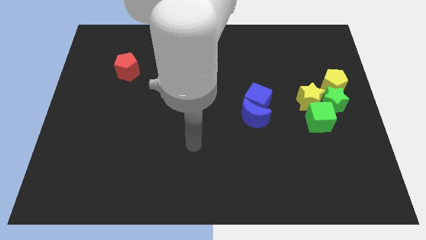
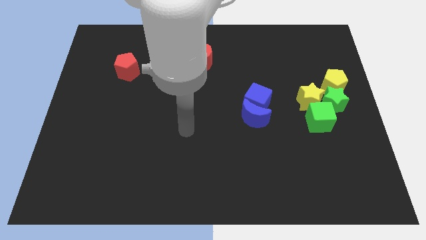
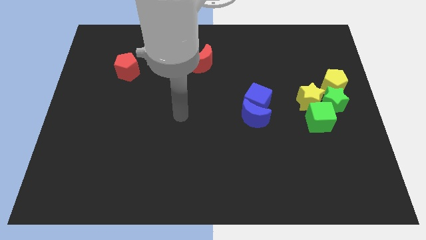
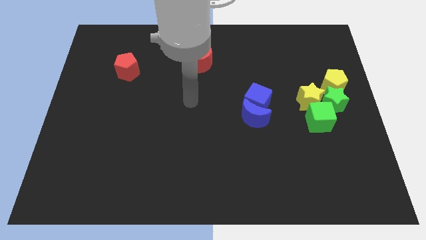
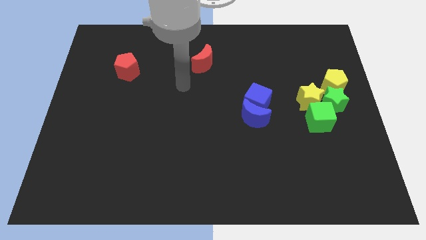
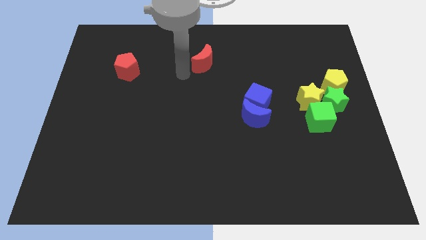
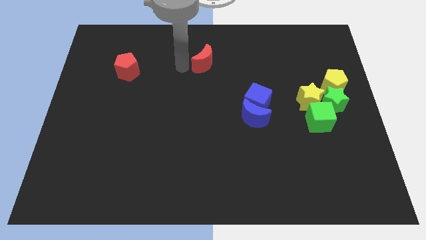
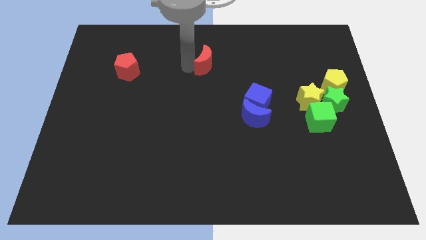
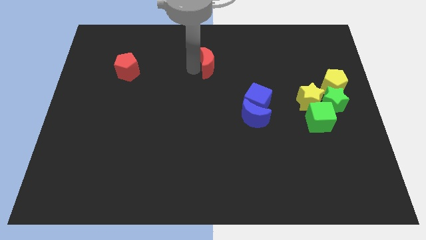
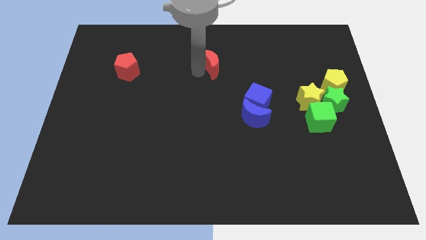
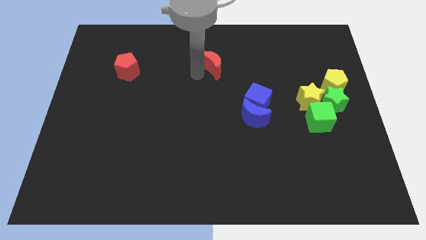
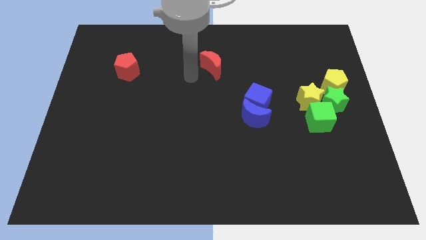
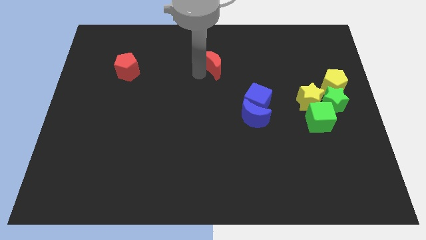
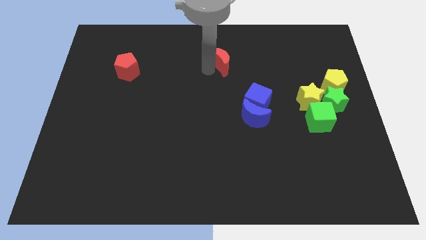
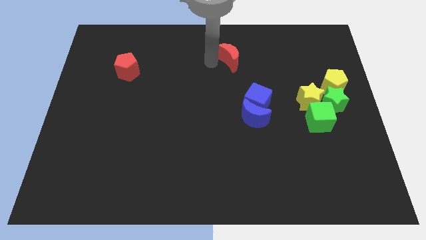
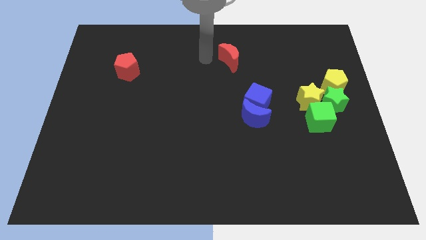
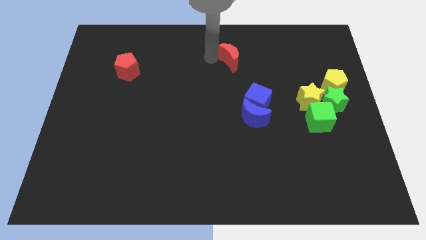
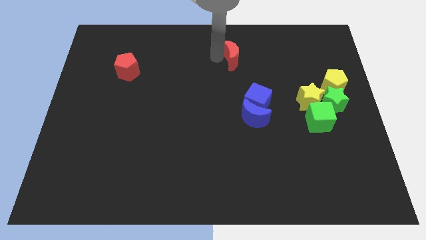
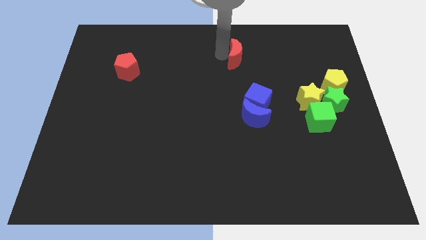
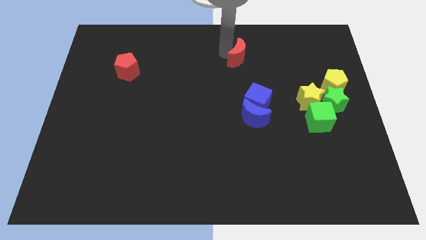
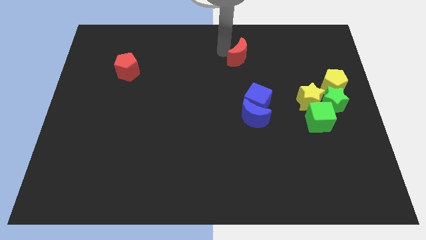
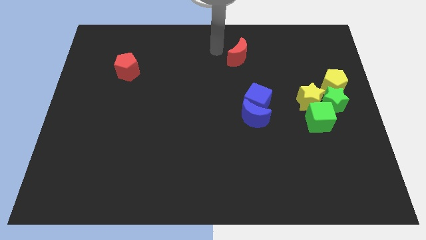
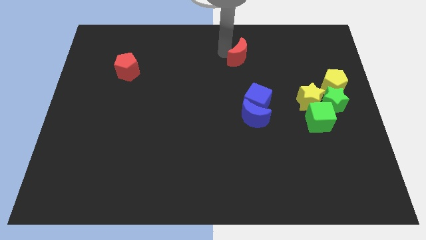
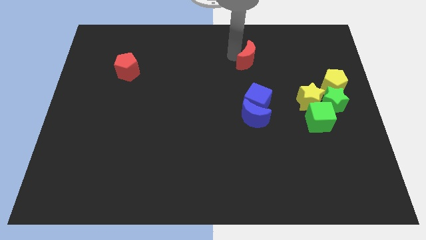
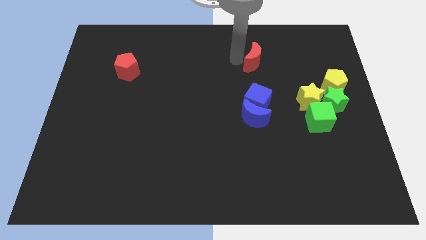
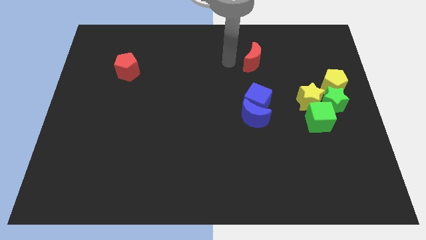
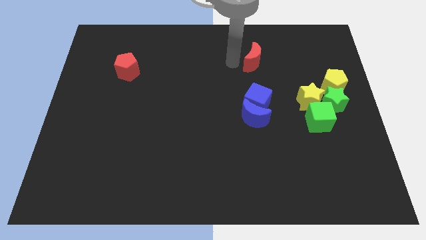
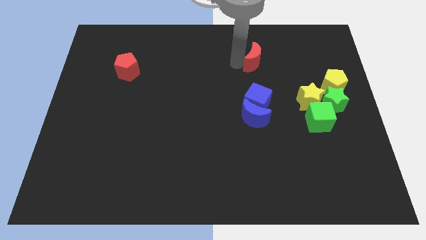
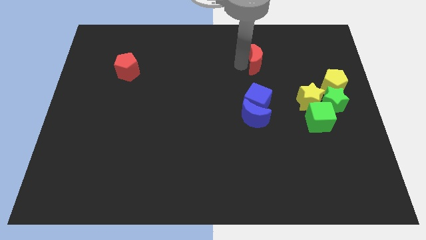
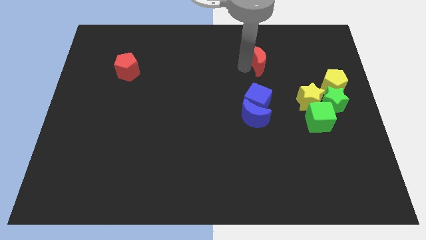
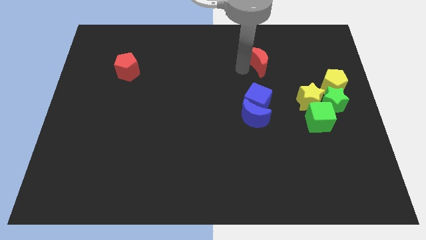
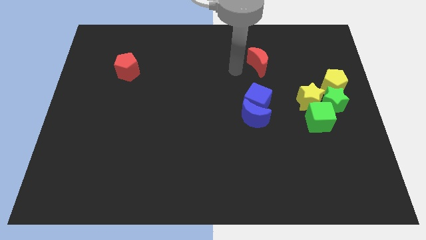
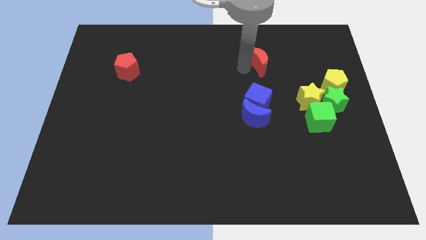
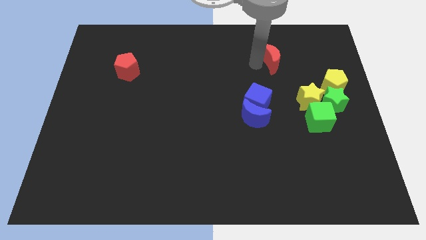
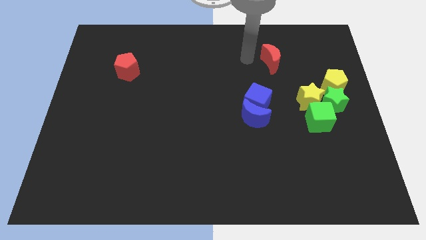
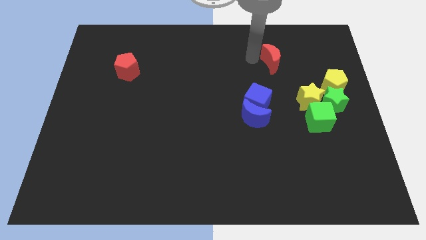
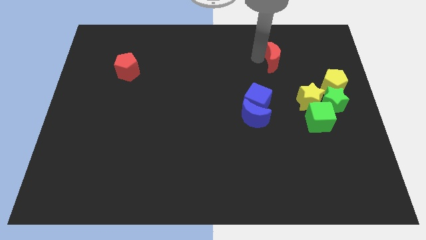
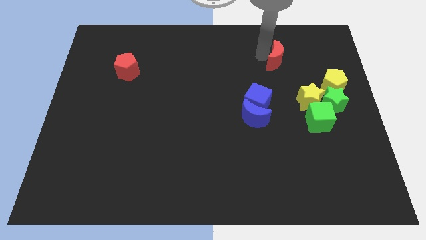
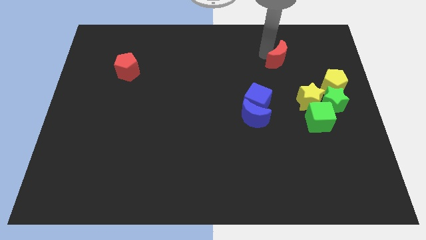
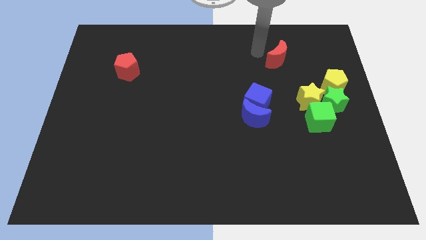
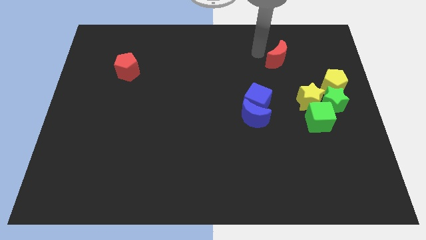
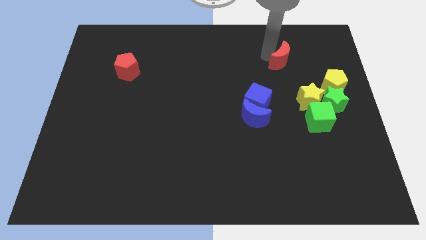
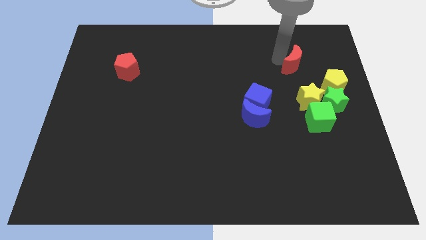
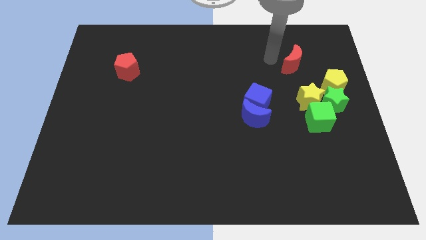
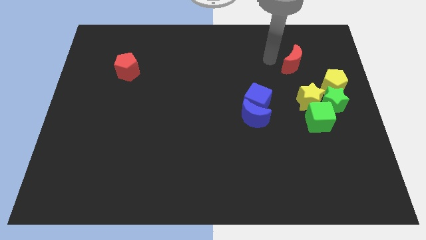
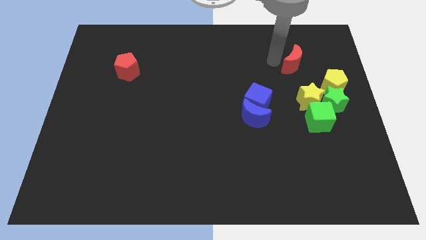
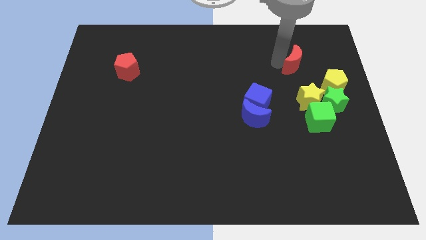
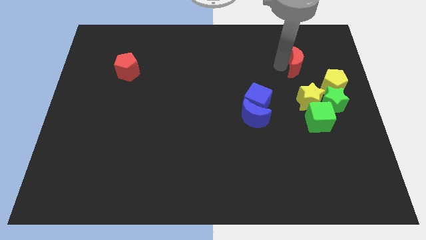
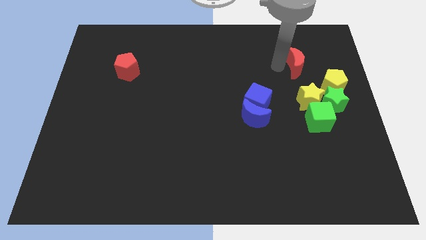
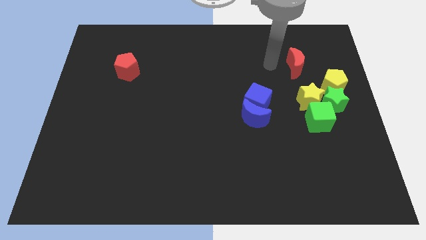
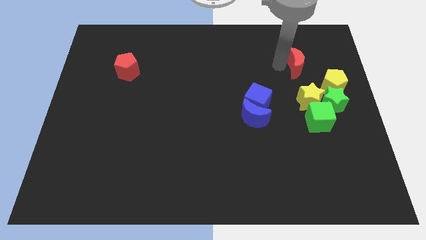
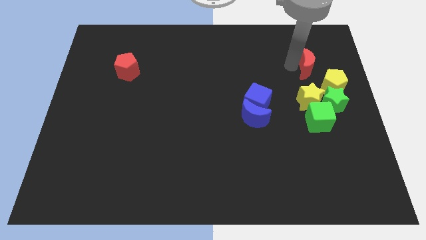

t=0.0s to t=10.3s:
move the red moon to the top side of the green star

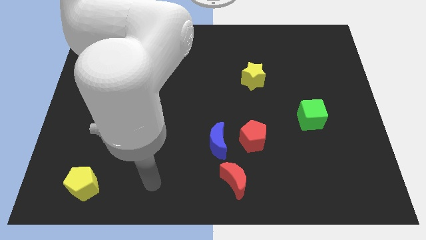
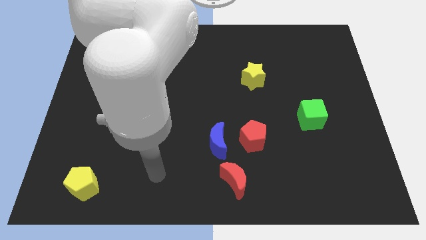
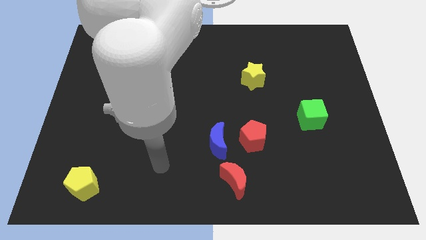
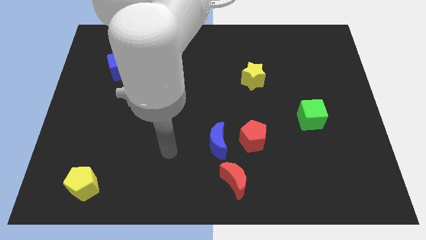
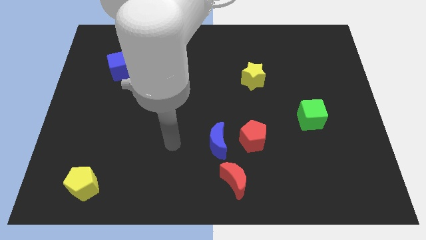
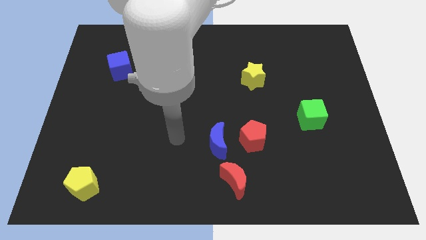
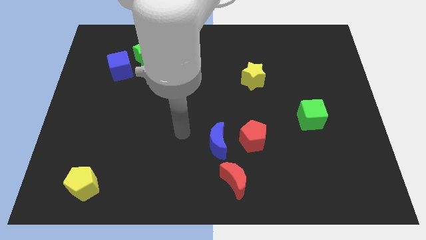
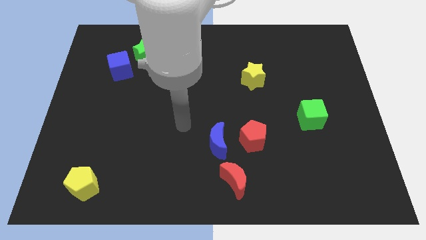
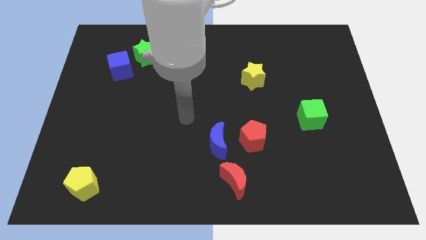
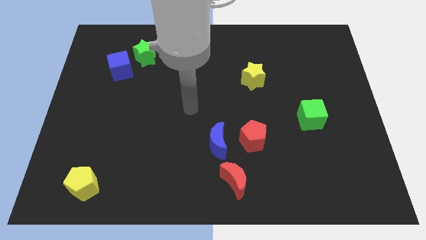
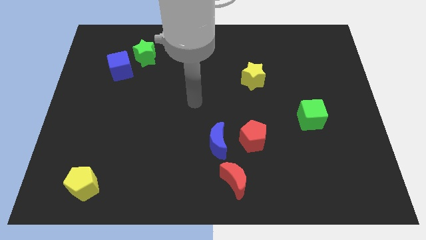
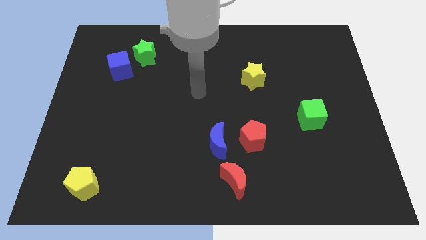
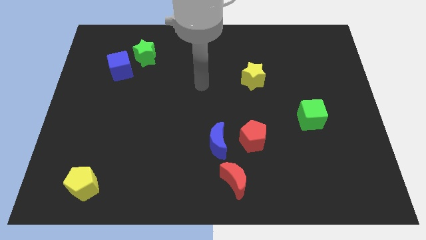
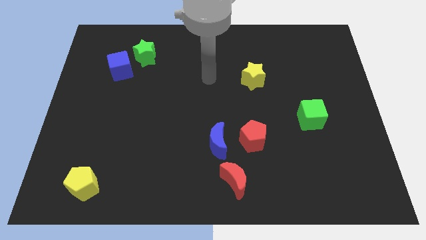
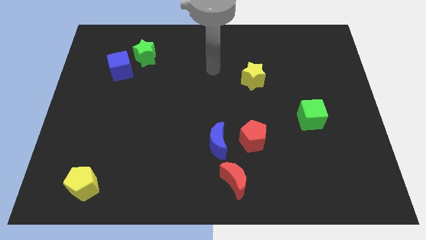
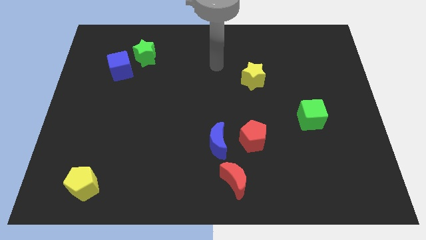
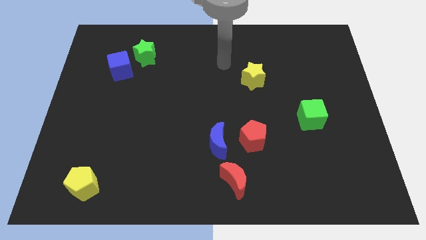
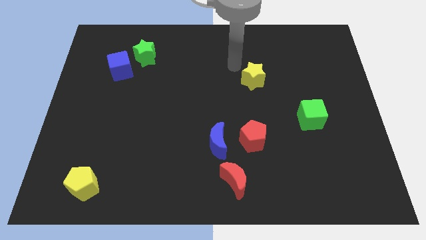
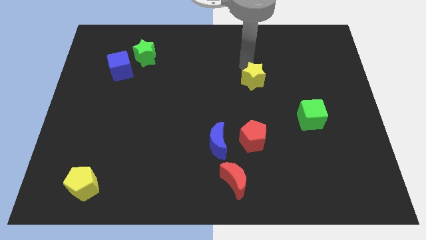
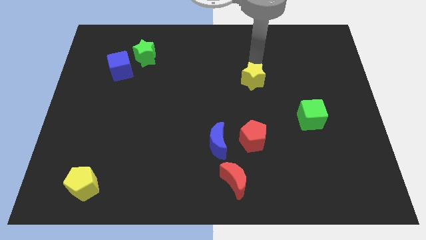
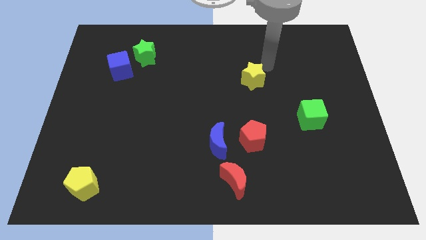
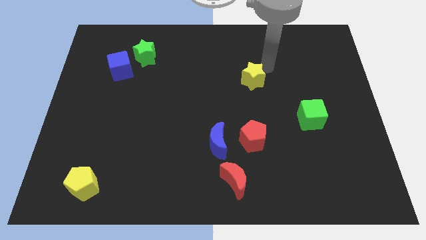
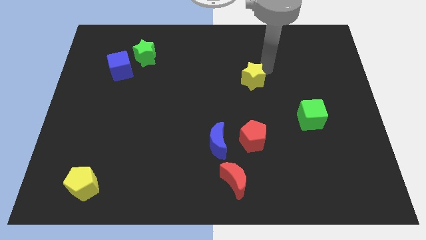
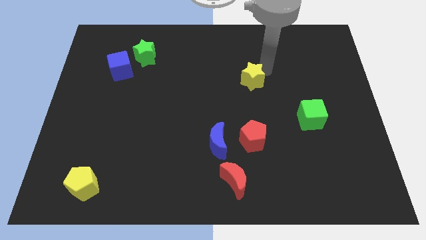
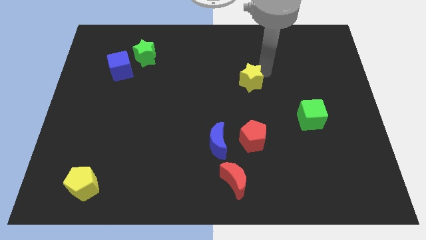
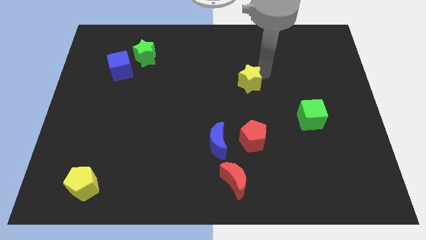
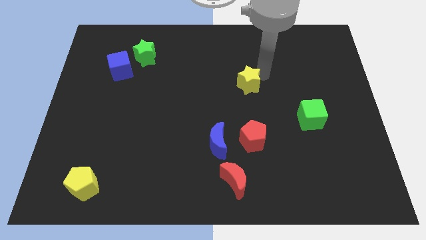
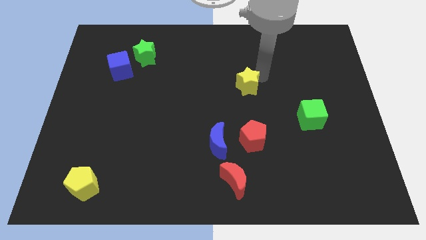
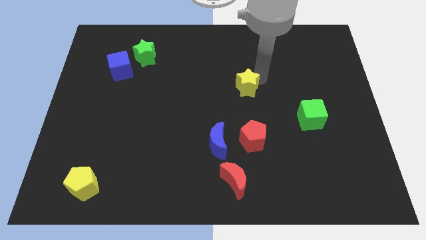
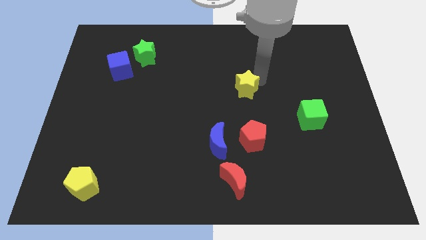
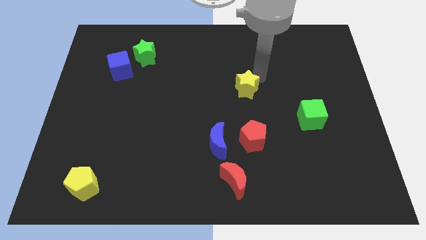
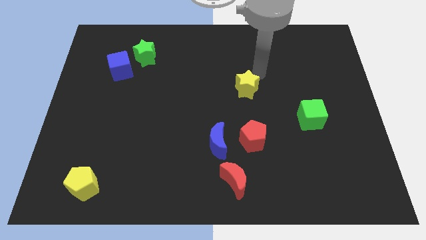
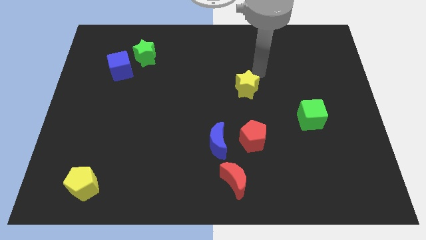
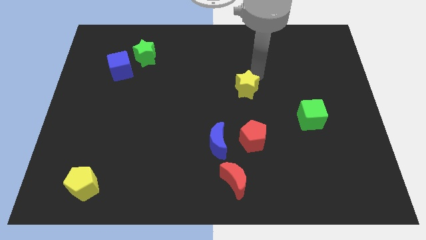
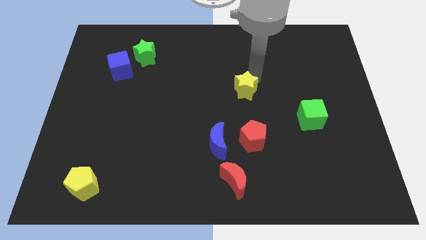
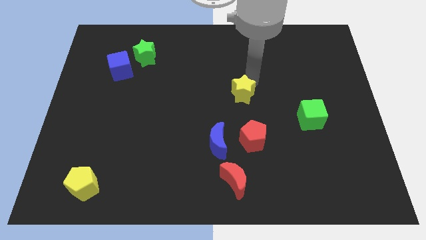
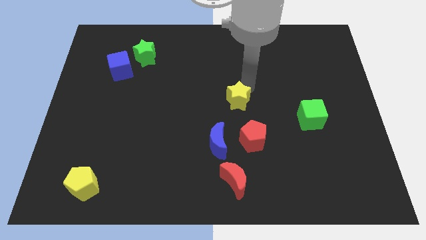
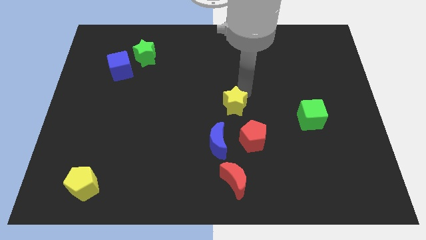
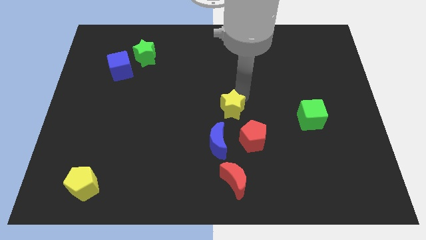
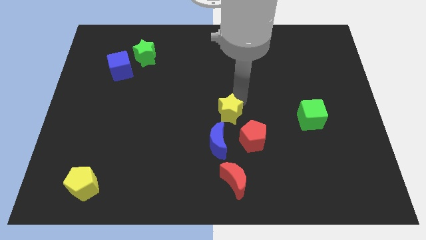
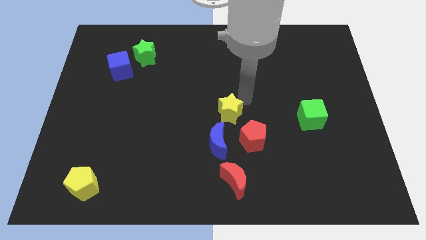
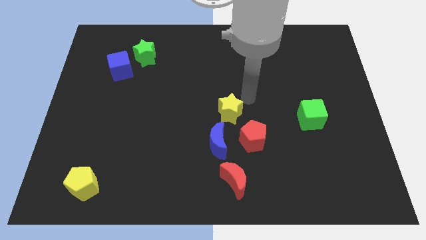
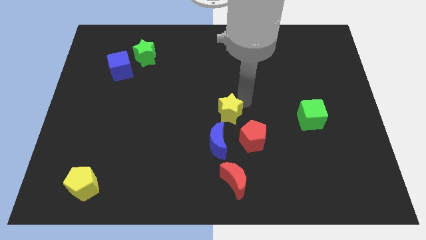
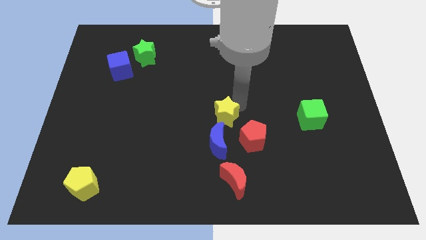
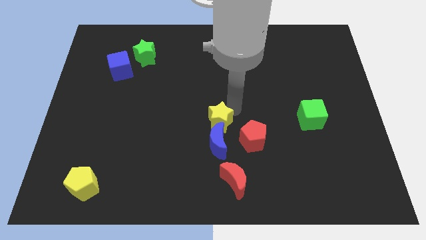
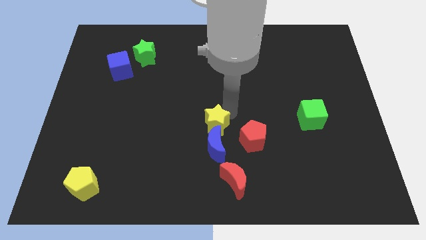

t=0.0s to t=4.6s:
move the yellow star just left of the red pentagon
